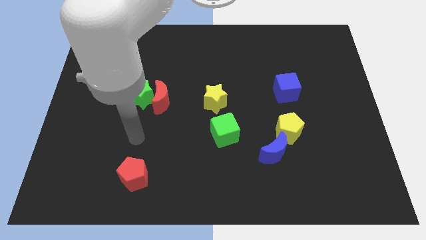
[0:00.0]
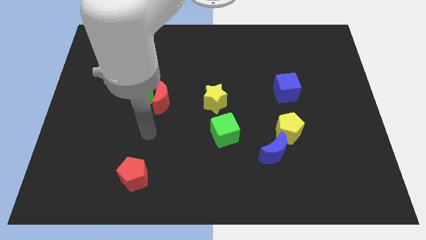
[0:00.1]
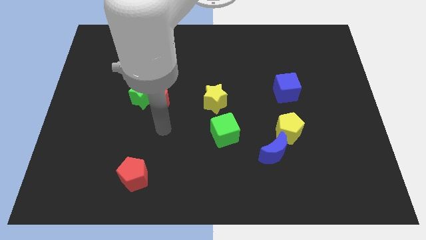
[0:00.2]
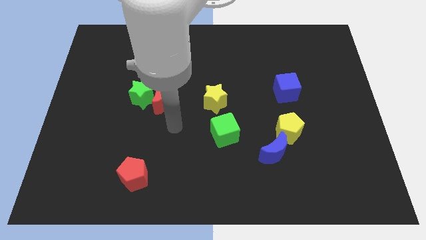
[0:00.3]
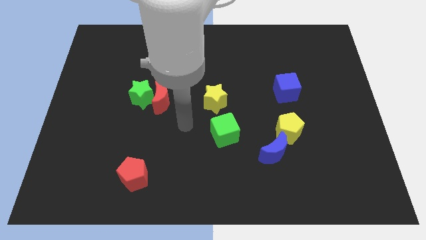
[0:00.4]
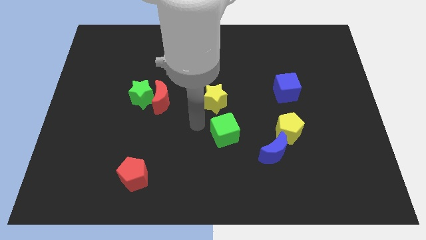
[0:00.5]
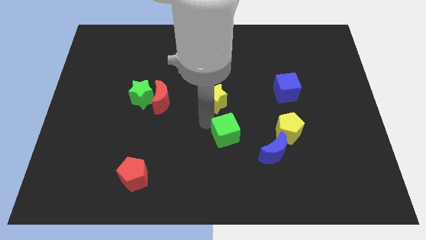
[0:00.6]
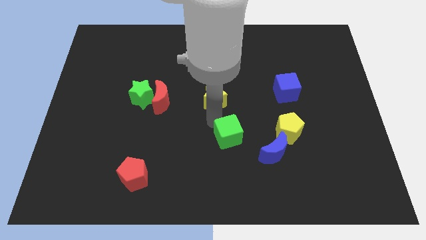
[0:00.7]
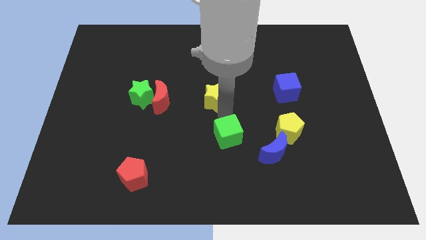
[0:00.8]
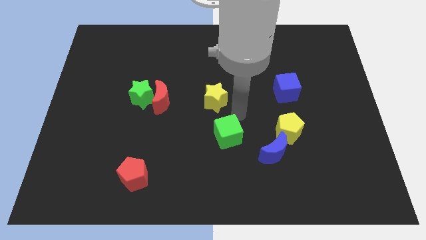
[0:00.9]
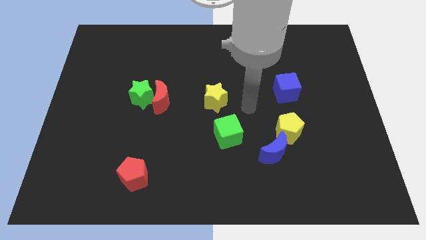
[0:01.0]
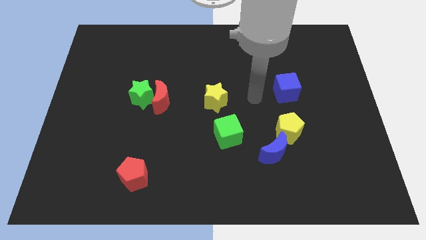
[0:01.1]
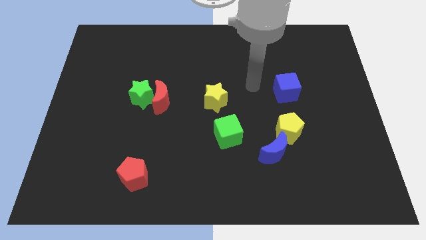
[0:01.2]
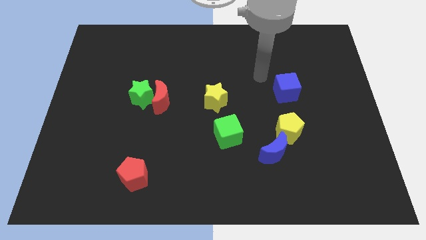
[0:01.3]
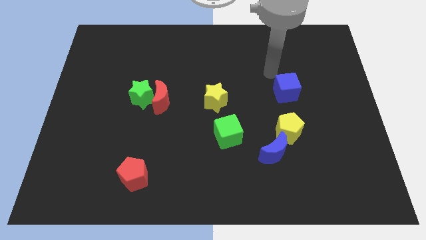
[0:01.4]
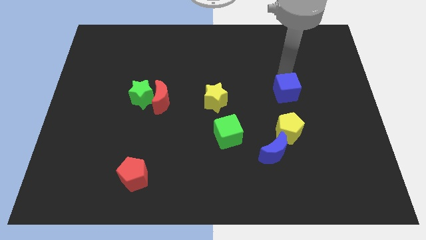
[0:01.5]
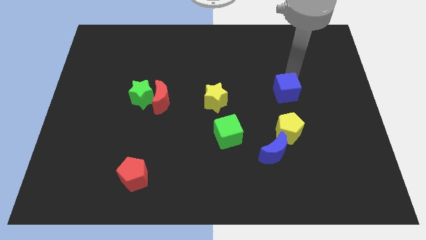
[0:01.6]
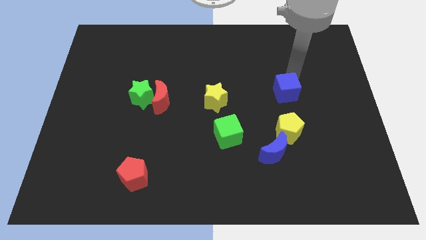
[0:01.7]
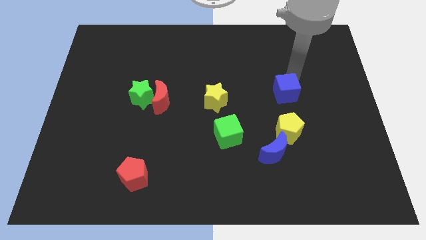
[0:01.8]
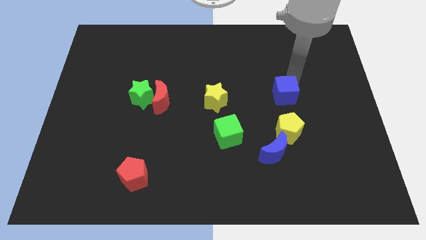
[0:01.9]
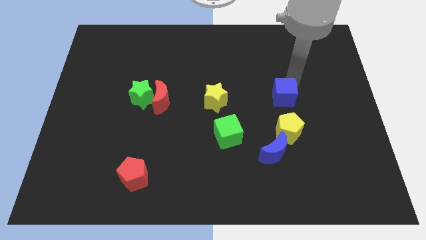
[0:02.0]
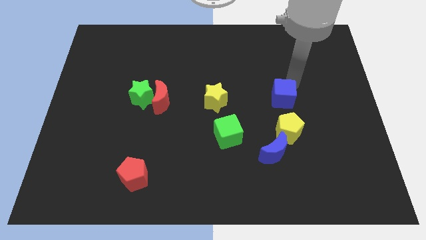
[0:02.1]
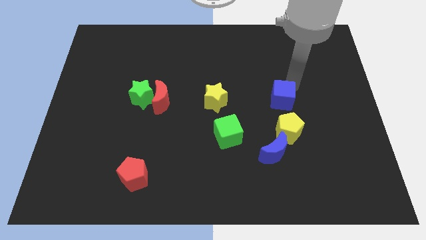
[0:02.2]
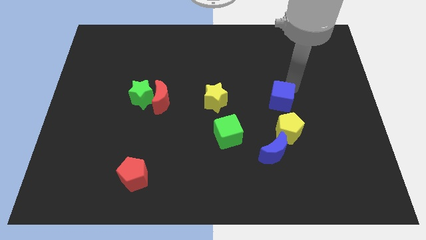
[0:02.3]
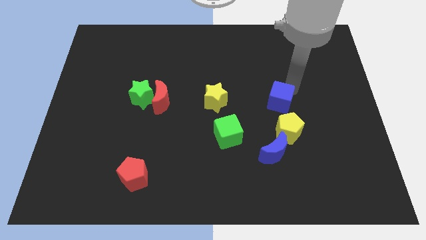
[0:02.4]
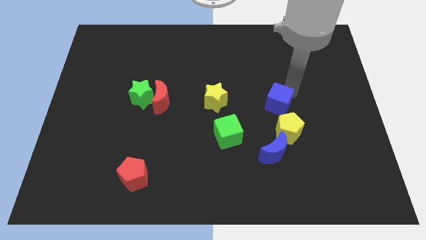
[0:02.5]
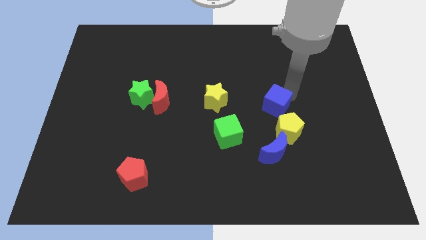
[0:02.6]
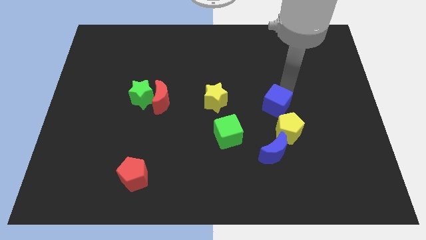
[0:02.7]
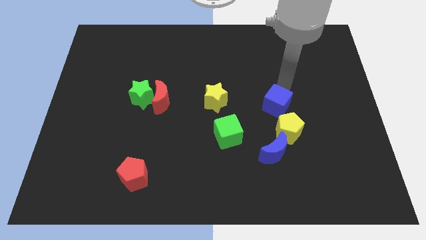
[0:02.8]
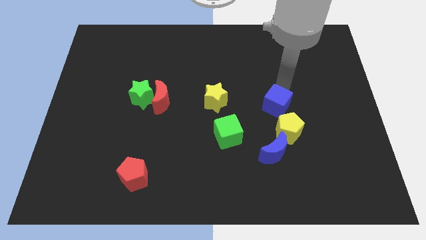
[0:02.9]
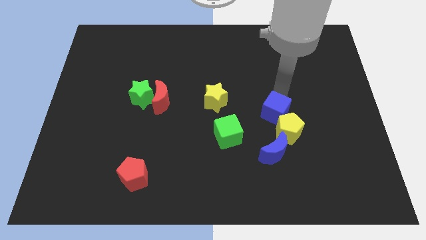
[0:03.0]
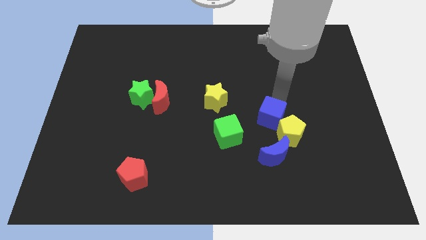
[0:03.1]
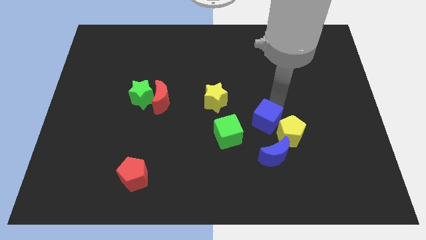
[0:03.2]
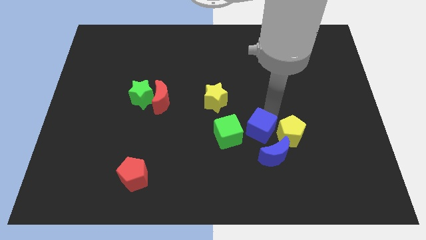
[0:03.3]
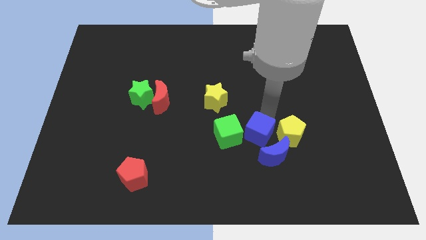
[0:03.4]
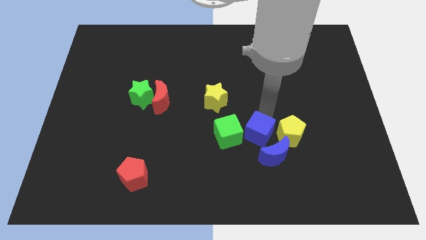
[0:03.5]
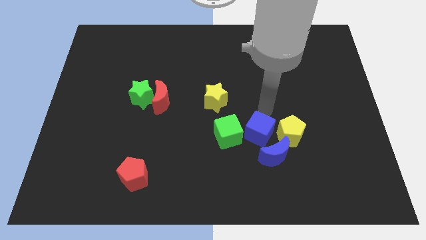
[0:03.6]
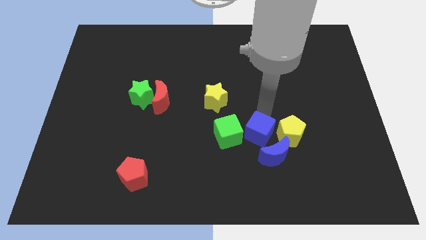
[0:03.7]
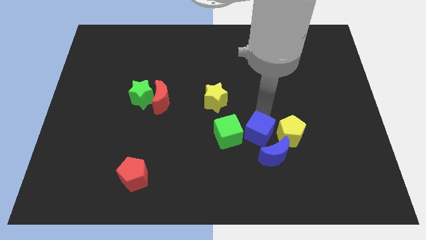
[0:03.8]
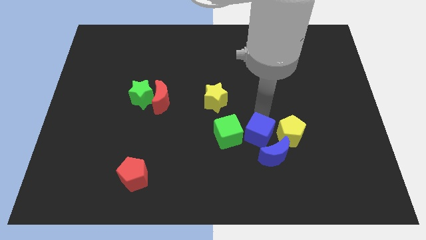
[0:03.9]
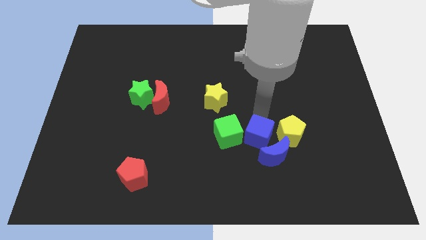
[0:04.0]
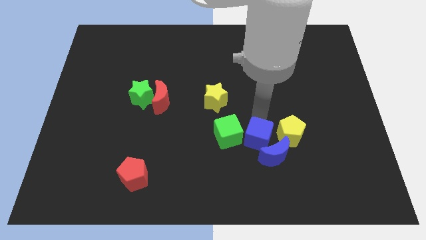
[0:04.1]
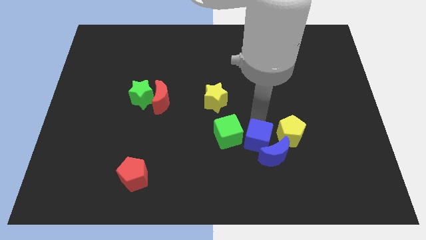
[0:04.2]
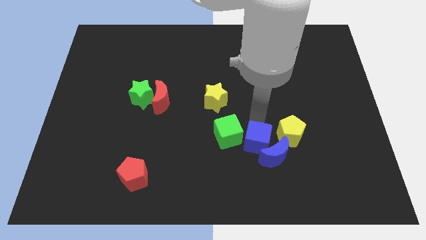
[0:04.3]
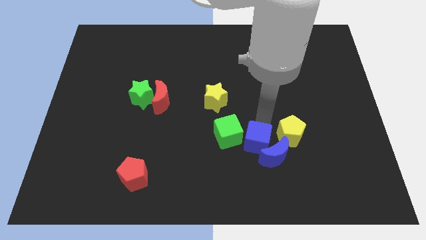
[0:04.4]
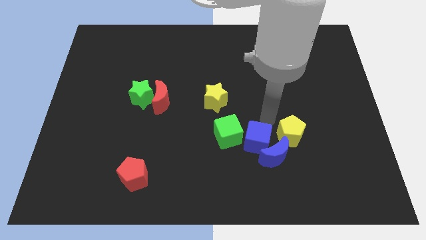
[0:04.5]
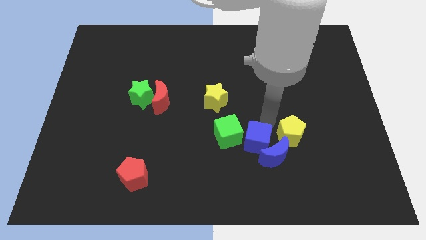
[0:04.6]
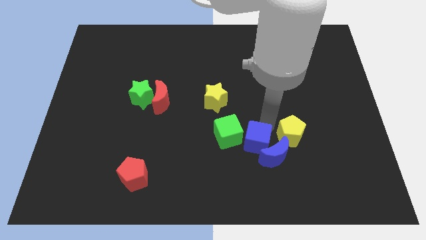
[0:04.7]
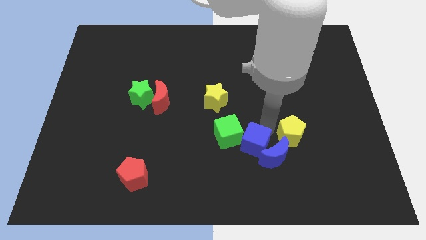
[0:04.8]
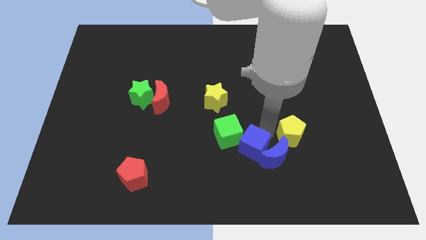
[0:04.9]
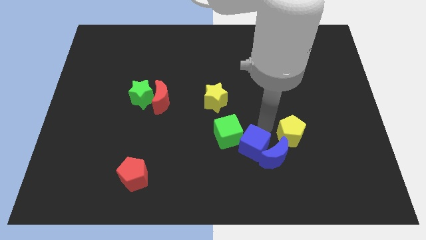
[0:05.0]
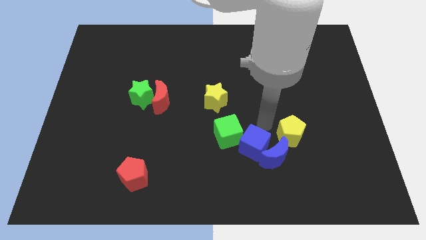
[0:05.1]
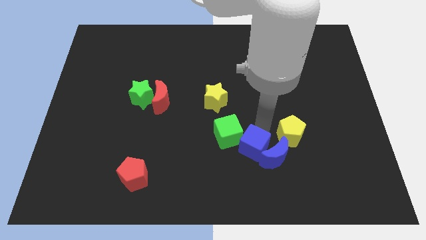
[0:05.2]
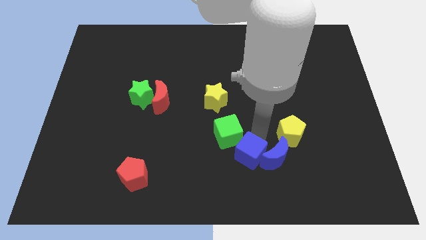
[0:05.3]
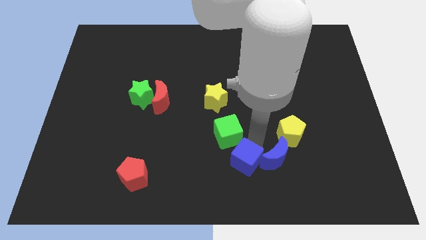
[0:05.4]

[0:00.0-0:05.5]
move the blue cube to the bottom

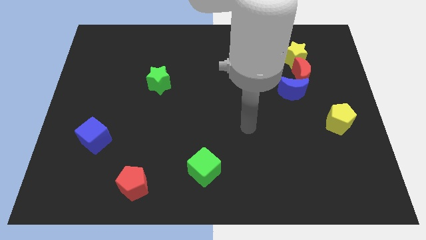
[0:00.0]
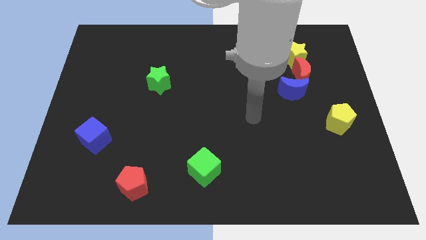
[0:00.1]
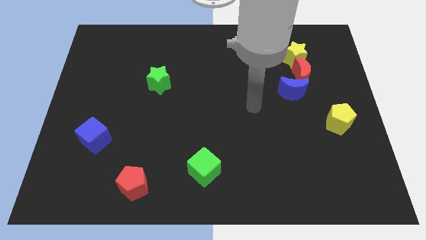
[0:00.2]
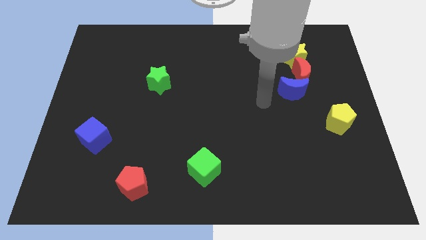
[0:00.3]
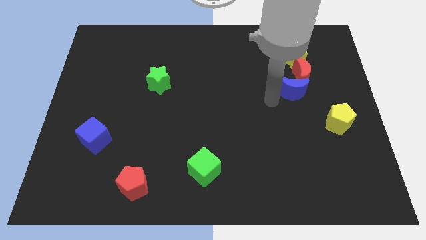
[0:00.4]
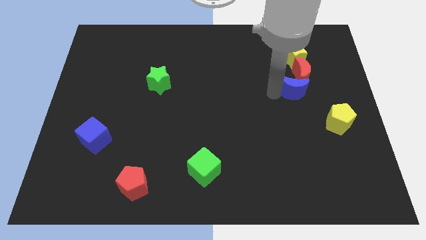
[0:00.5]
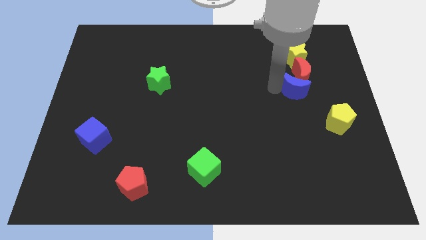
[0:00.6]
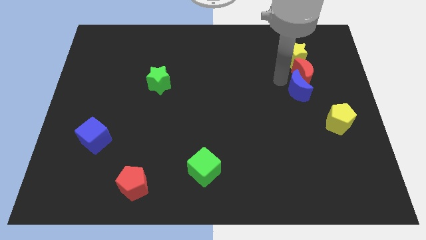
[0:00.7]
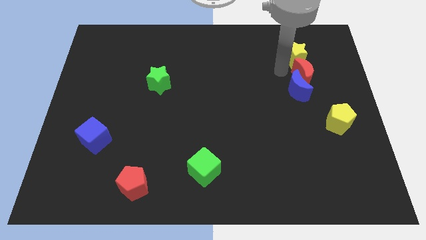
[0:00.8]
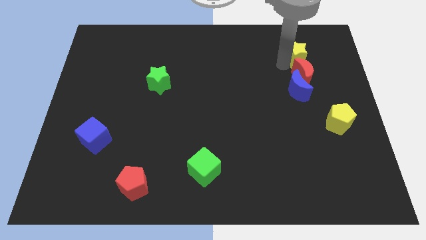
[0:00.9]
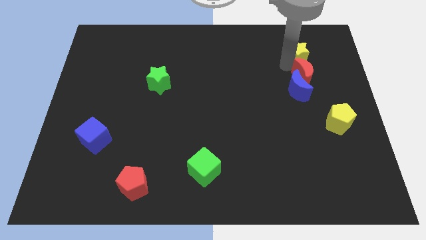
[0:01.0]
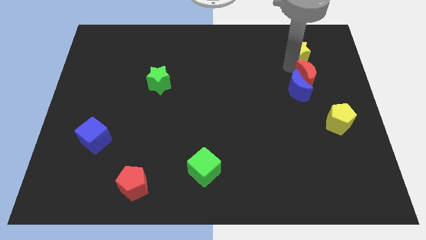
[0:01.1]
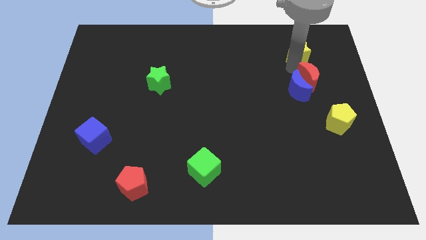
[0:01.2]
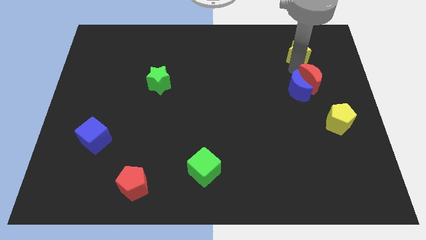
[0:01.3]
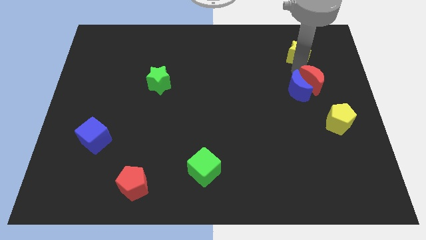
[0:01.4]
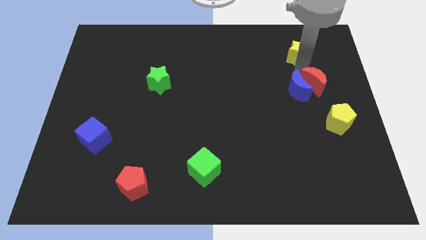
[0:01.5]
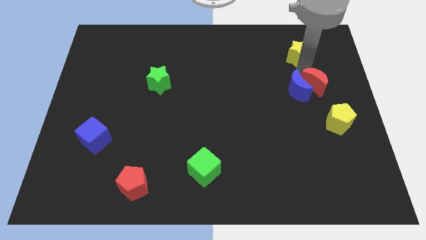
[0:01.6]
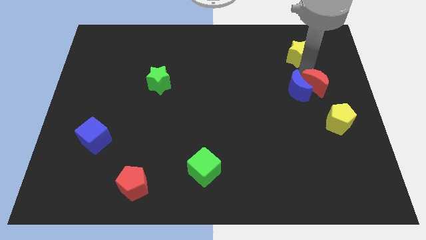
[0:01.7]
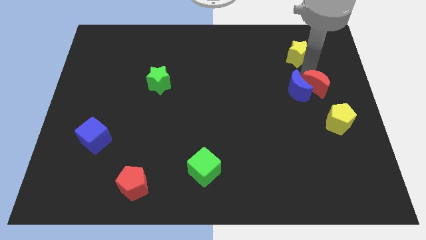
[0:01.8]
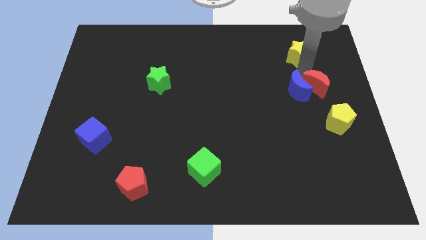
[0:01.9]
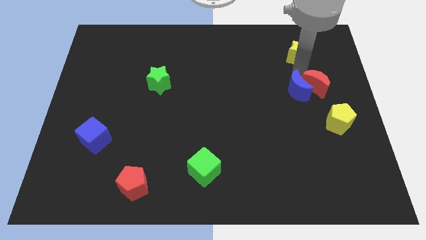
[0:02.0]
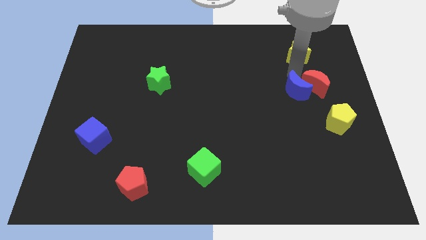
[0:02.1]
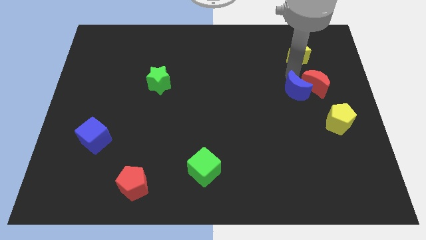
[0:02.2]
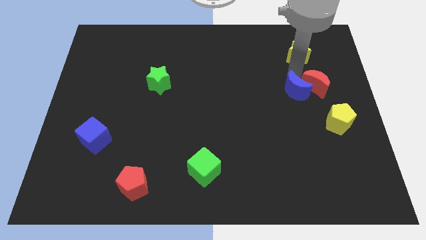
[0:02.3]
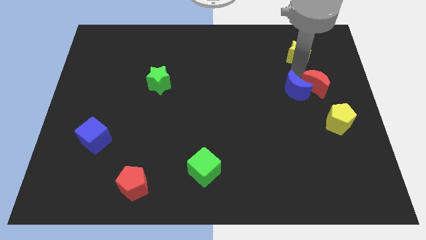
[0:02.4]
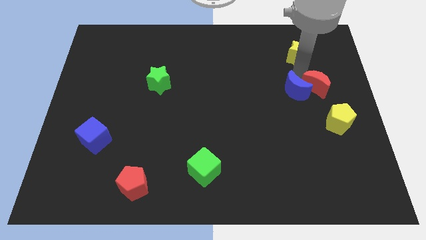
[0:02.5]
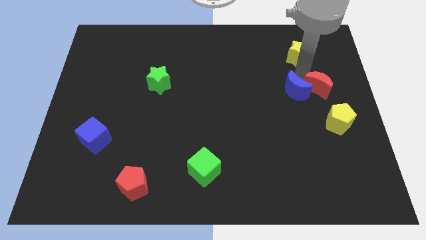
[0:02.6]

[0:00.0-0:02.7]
move the red moon to the right side
